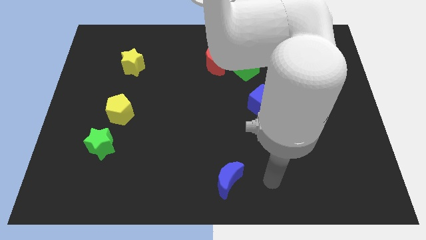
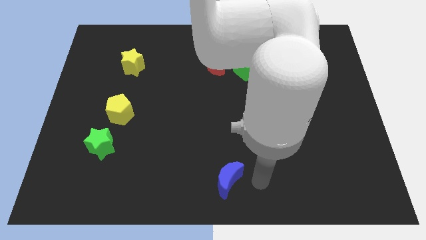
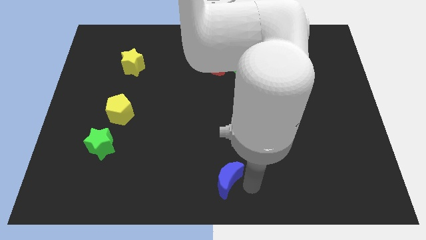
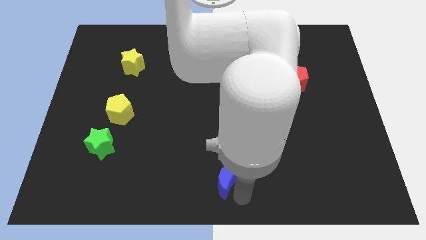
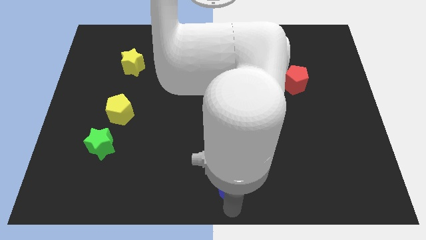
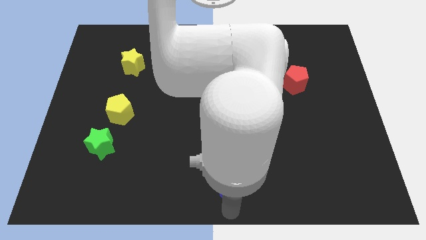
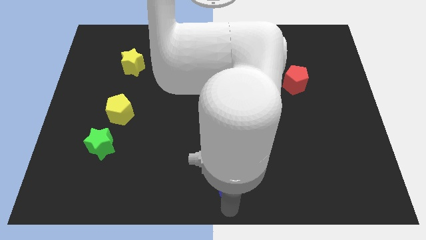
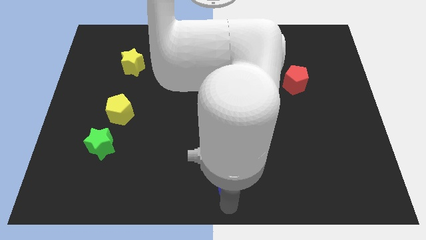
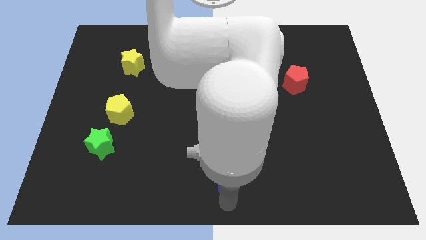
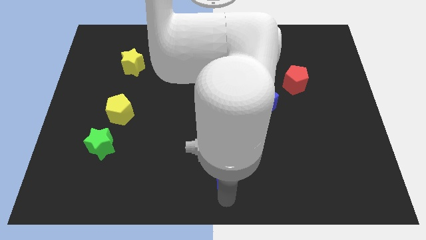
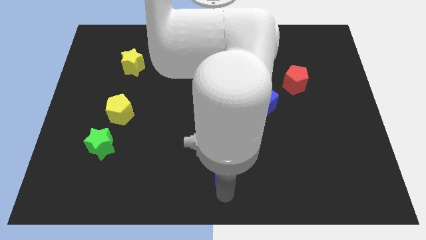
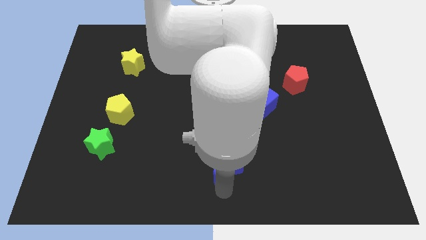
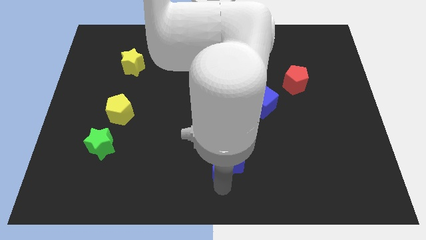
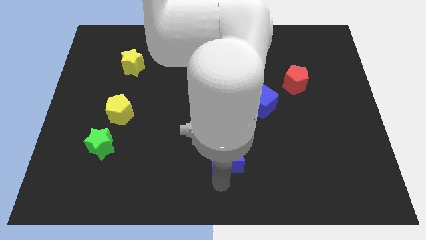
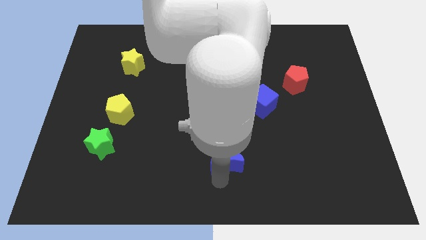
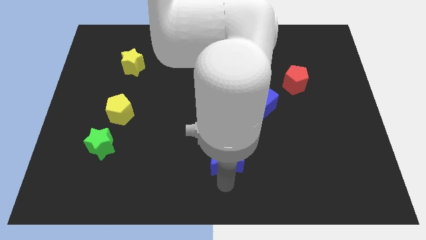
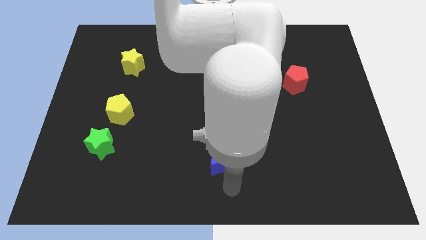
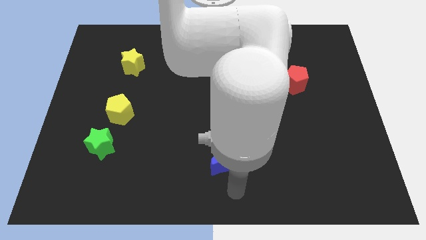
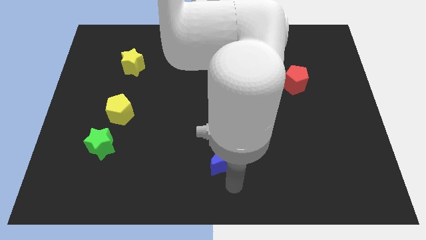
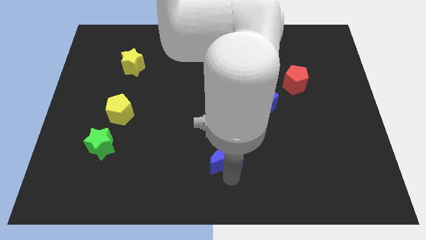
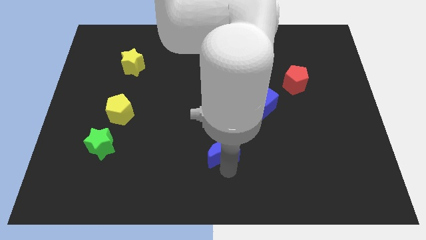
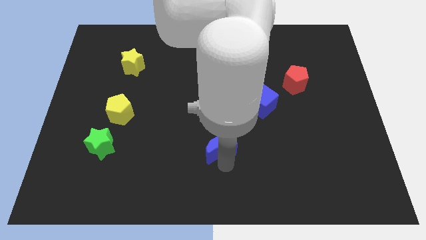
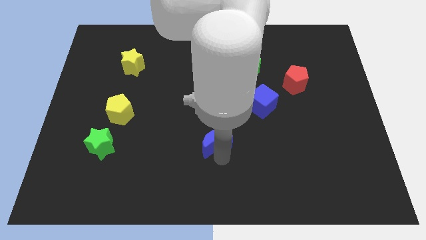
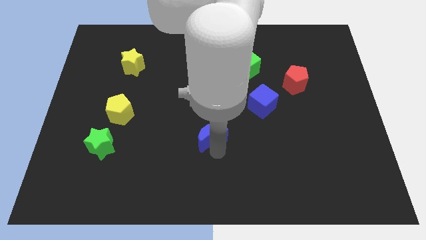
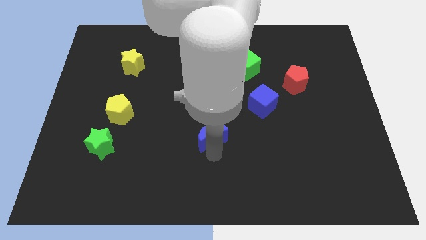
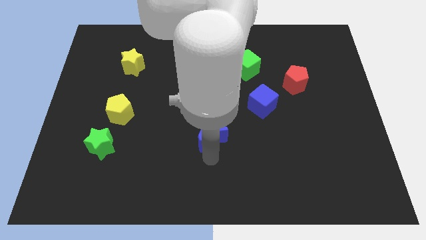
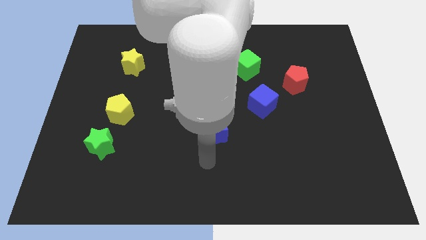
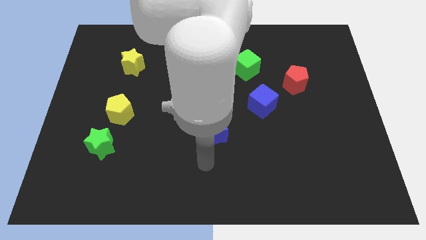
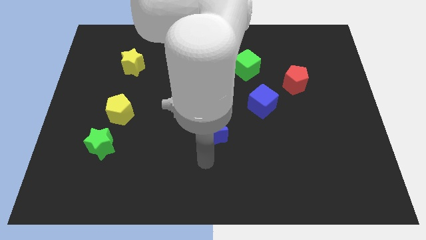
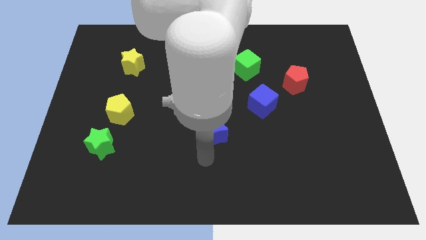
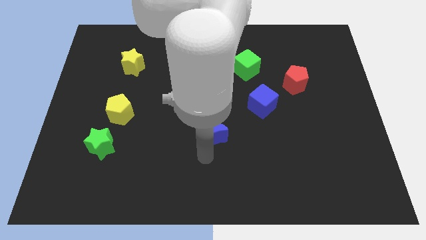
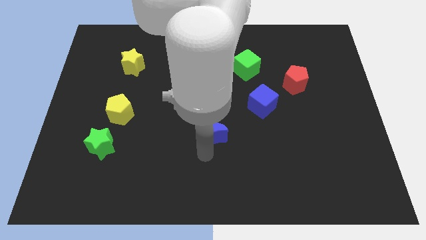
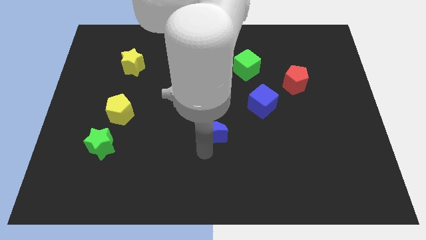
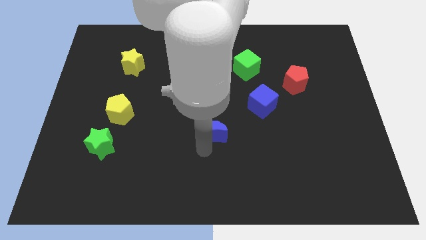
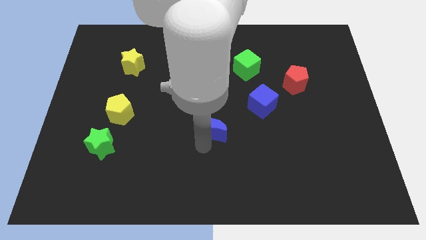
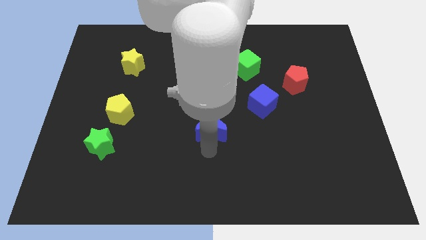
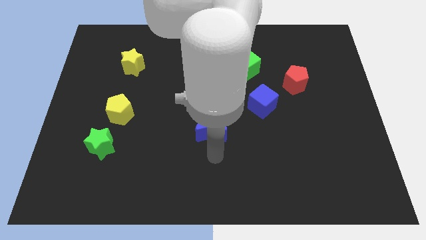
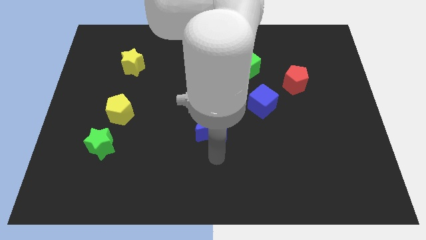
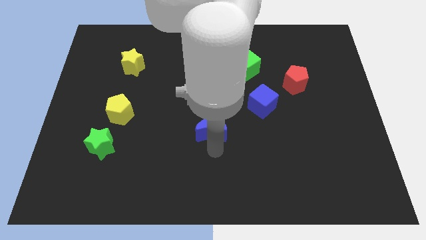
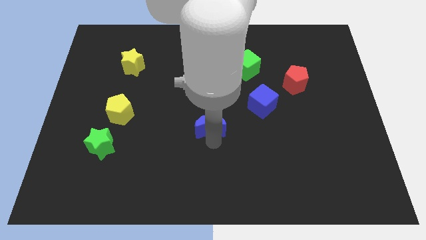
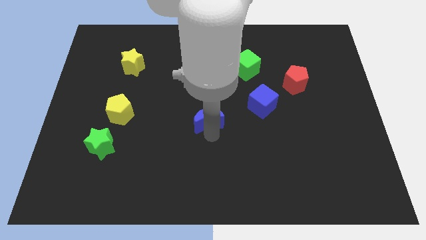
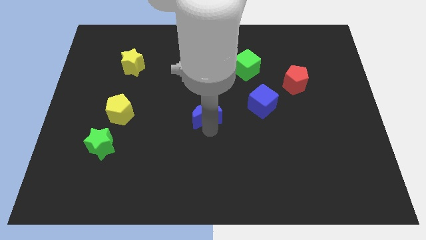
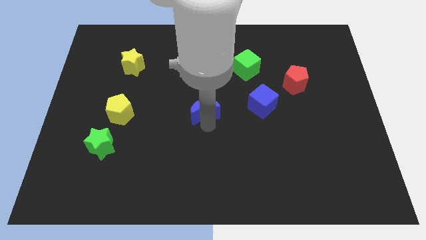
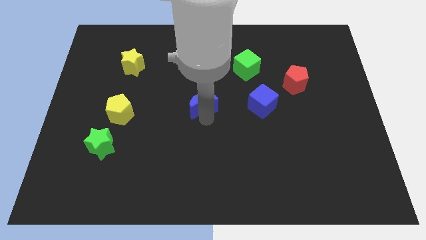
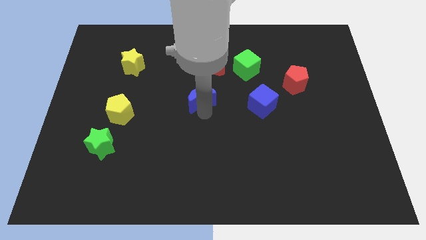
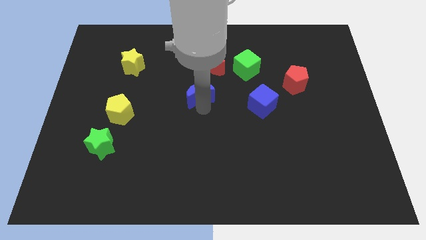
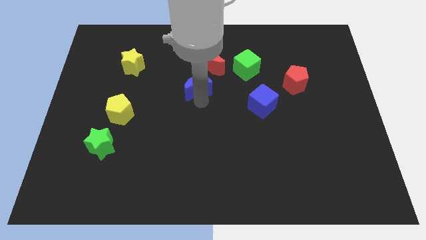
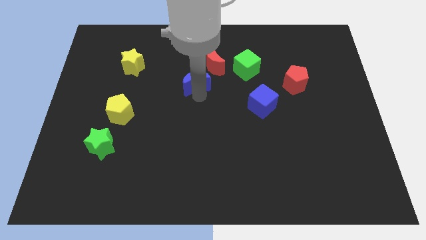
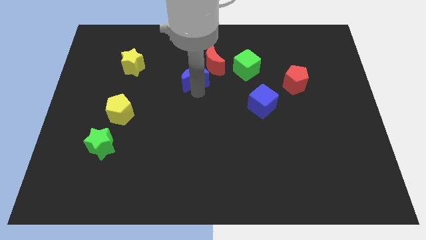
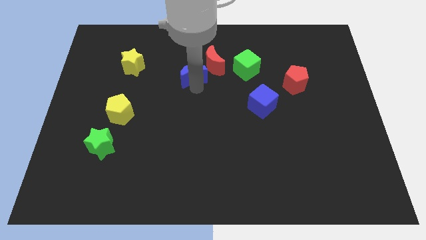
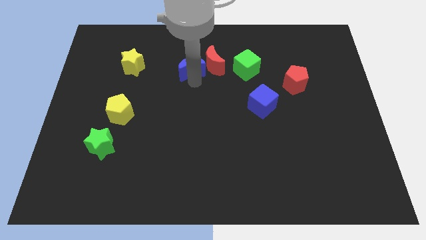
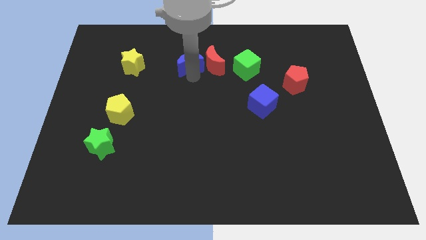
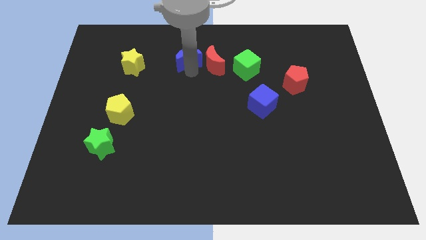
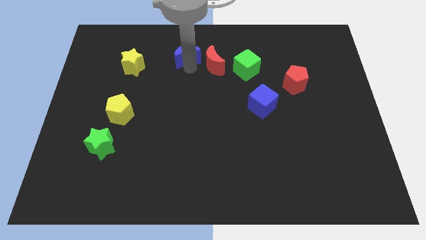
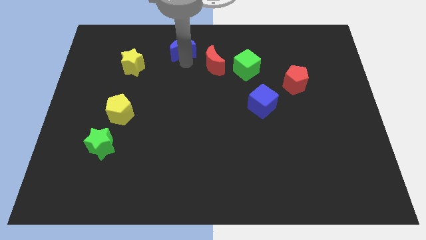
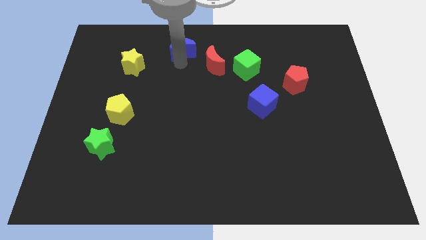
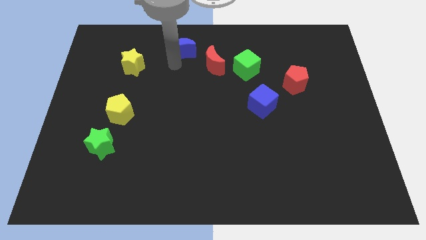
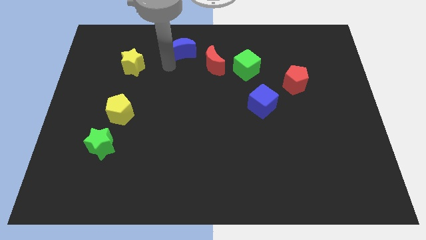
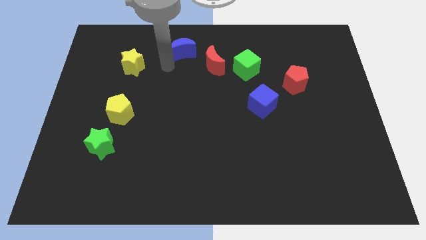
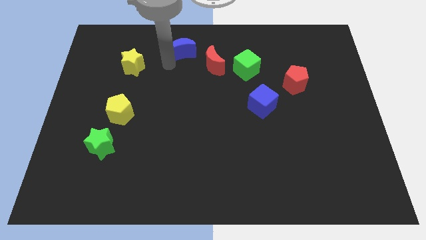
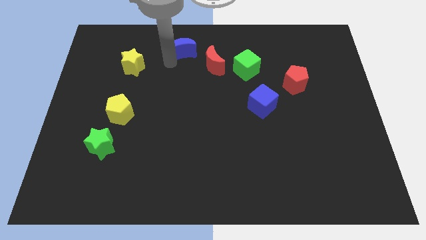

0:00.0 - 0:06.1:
move the blue moon to the top side
